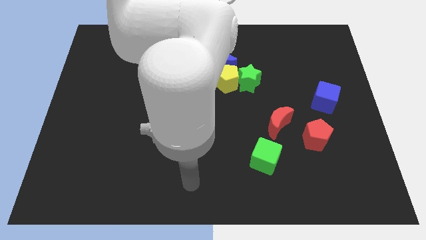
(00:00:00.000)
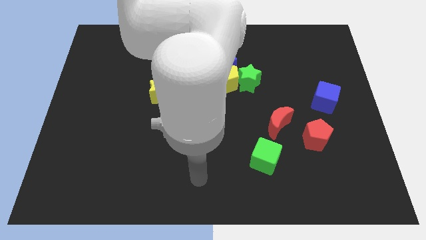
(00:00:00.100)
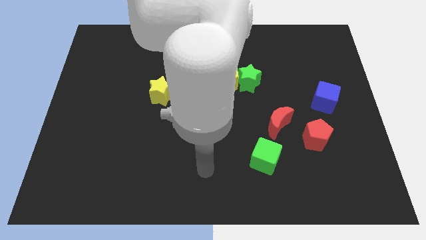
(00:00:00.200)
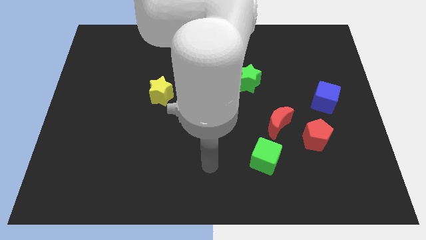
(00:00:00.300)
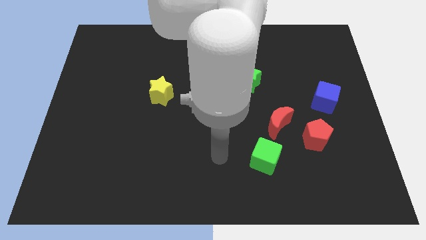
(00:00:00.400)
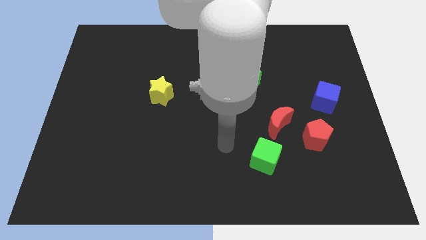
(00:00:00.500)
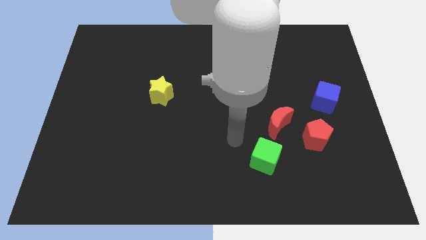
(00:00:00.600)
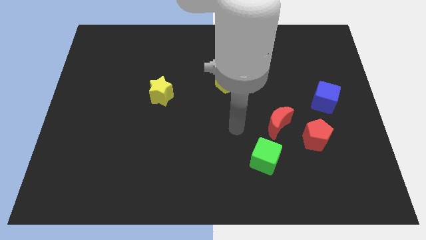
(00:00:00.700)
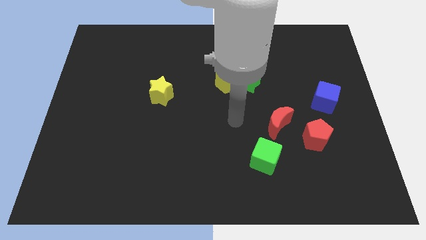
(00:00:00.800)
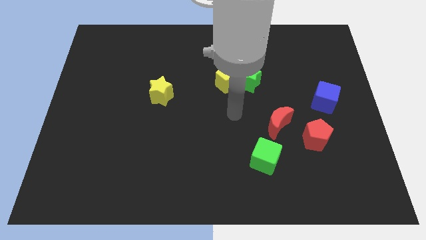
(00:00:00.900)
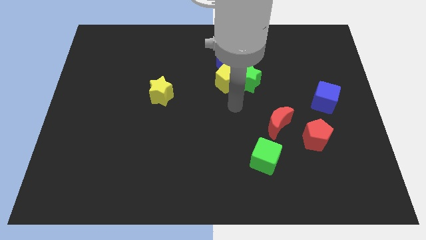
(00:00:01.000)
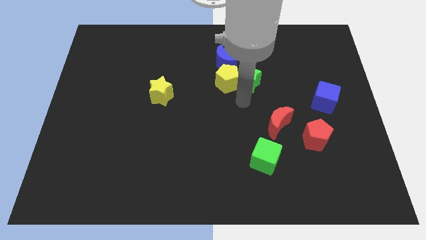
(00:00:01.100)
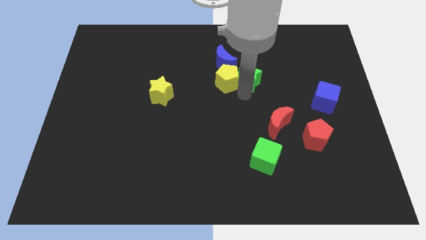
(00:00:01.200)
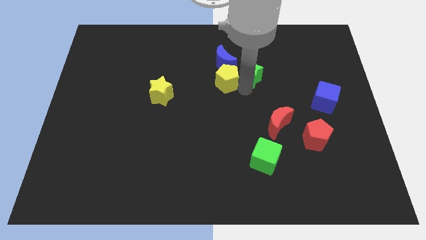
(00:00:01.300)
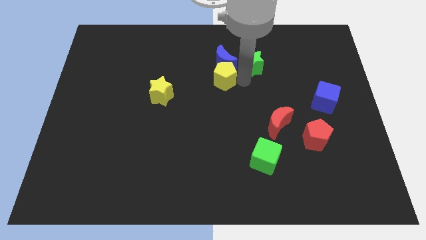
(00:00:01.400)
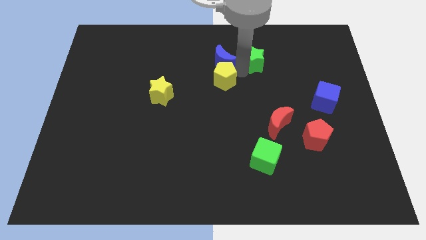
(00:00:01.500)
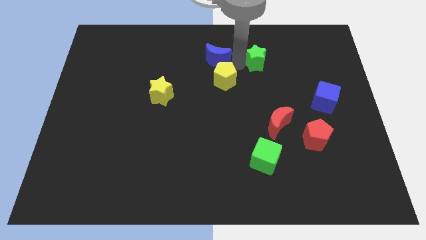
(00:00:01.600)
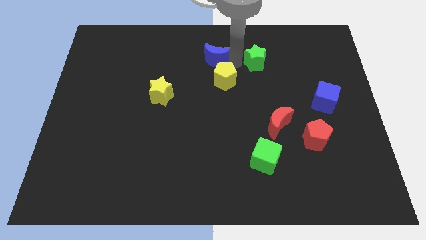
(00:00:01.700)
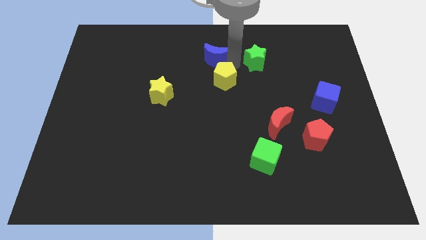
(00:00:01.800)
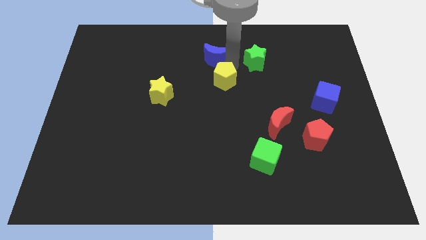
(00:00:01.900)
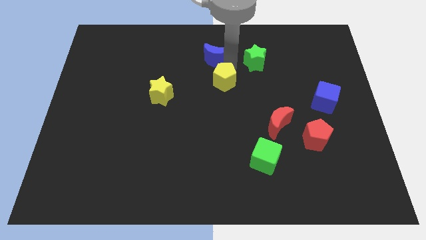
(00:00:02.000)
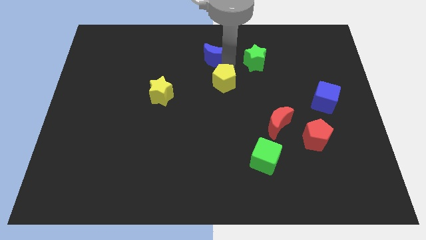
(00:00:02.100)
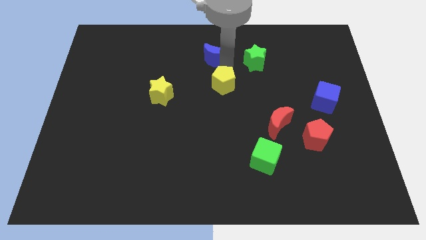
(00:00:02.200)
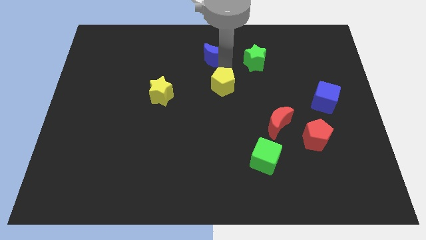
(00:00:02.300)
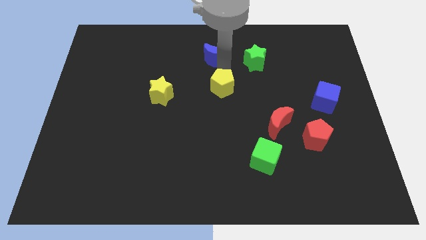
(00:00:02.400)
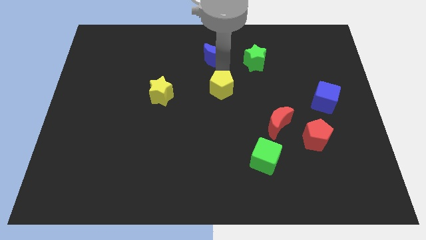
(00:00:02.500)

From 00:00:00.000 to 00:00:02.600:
pull the yellow pentagon apart from the green star and blue moon

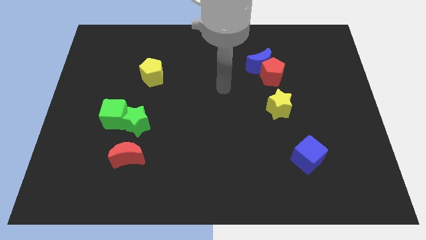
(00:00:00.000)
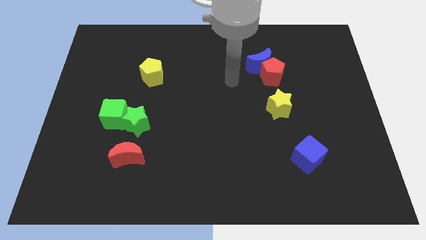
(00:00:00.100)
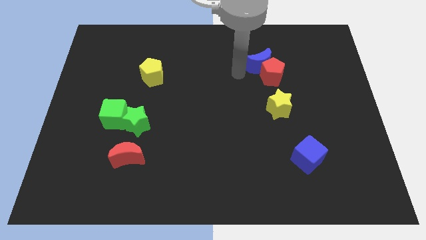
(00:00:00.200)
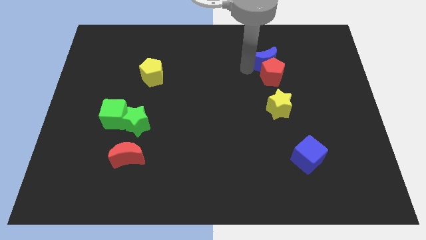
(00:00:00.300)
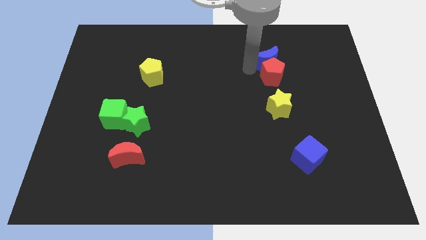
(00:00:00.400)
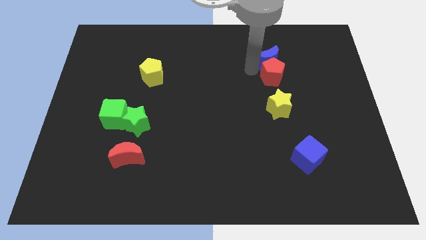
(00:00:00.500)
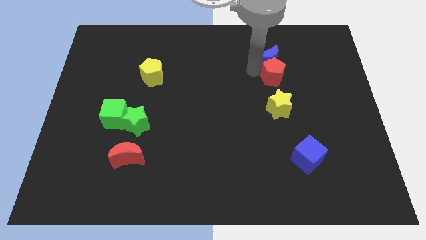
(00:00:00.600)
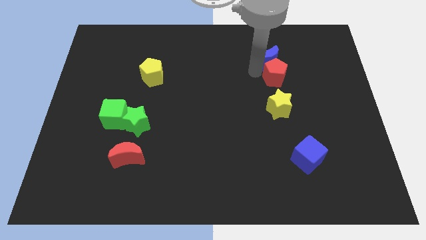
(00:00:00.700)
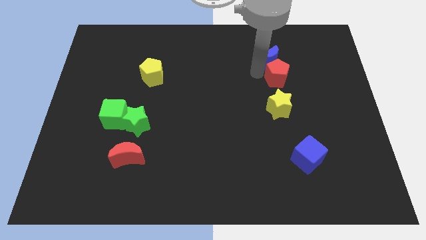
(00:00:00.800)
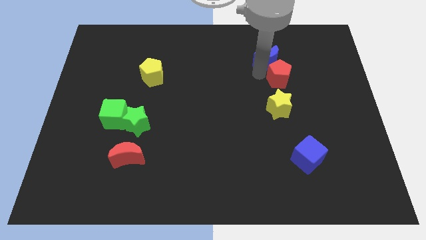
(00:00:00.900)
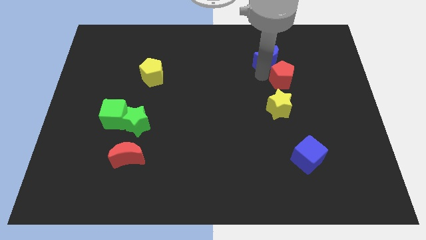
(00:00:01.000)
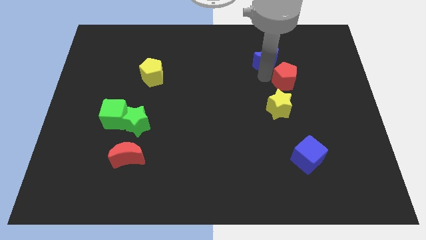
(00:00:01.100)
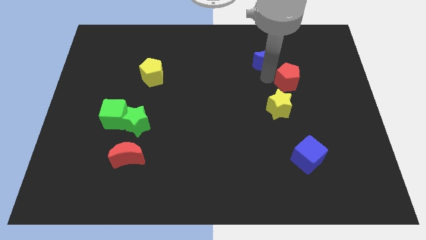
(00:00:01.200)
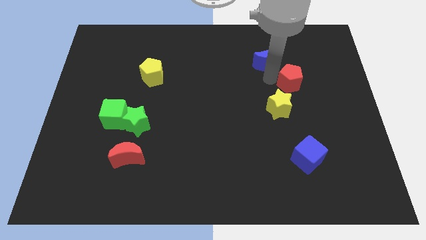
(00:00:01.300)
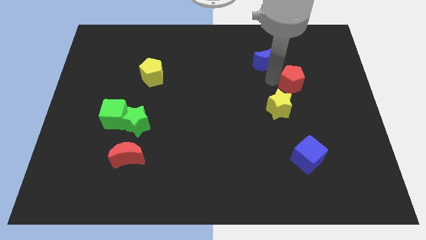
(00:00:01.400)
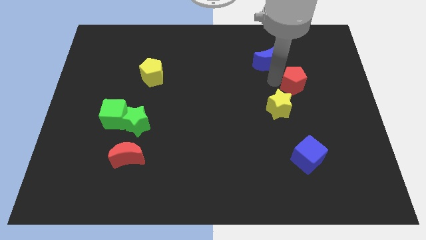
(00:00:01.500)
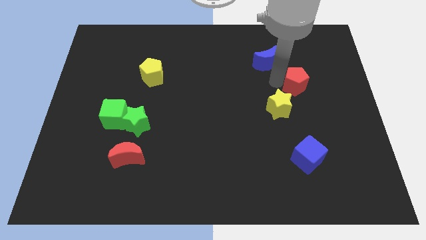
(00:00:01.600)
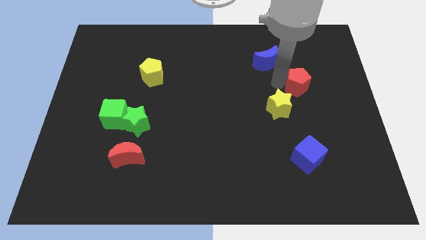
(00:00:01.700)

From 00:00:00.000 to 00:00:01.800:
separate the red pentagon from the blue moon

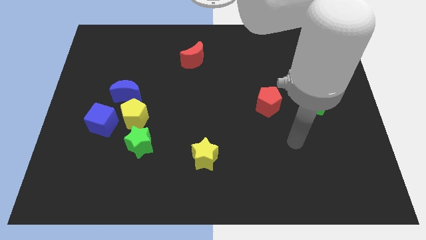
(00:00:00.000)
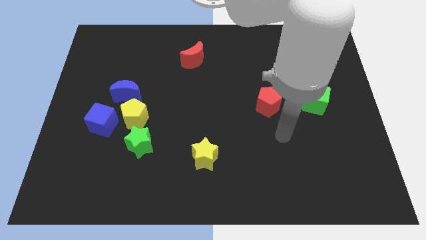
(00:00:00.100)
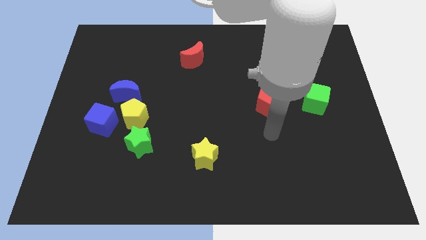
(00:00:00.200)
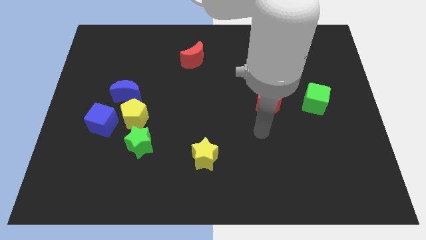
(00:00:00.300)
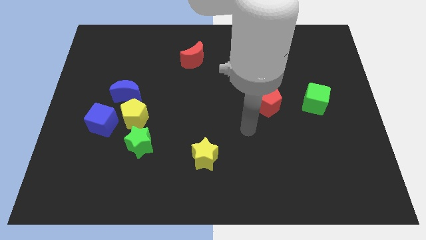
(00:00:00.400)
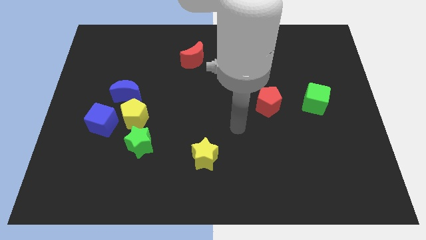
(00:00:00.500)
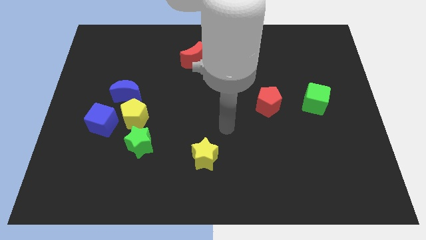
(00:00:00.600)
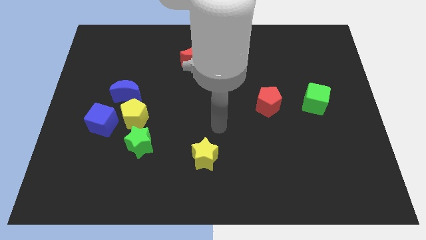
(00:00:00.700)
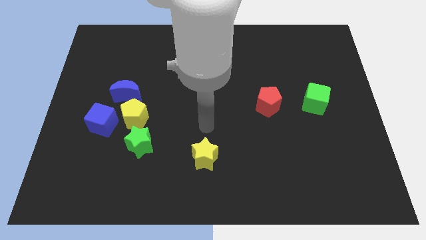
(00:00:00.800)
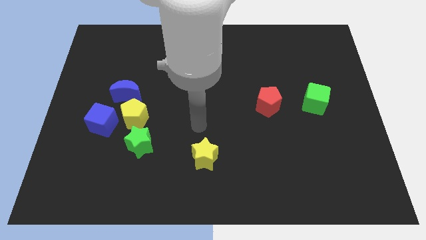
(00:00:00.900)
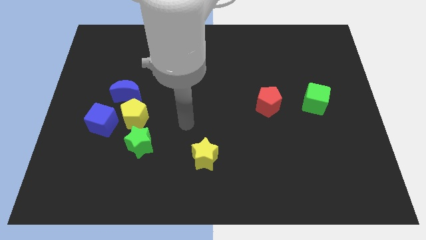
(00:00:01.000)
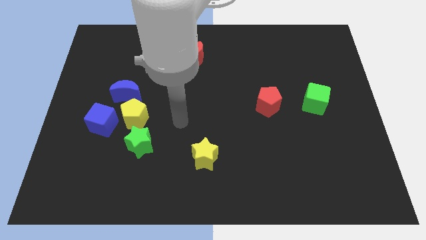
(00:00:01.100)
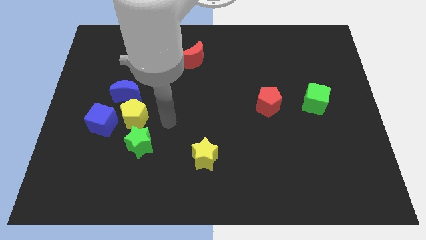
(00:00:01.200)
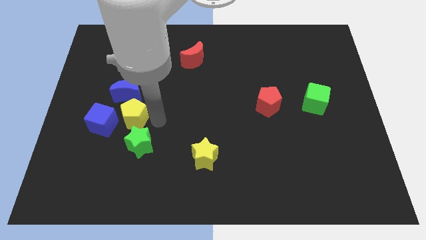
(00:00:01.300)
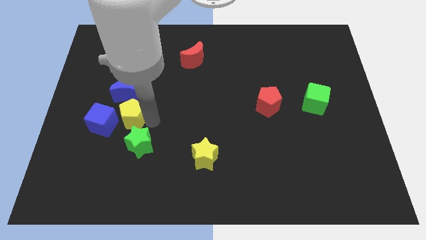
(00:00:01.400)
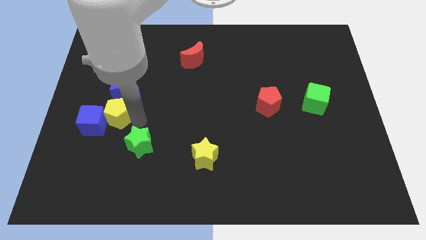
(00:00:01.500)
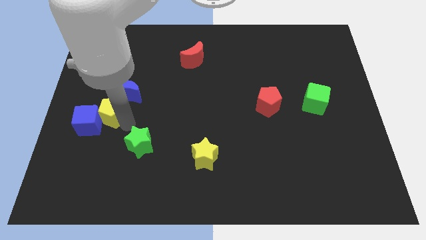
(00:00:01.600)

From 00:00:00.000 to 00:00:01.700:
separate the green star from the yellow pentagon

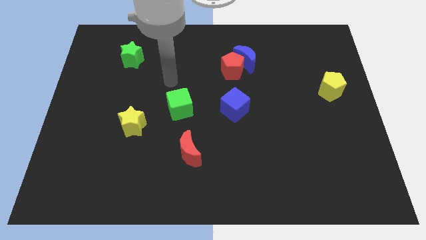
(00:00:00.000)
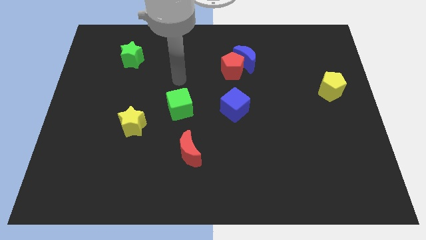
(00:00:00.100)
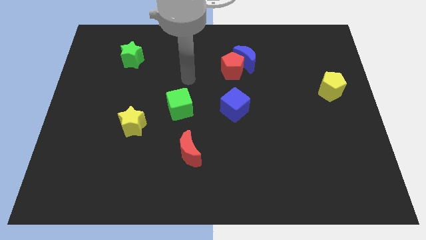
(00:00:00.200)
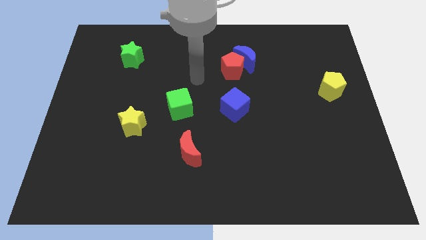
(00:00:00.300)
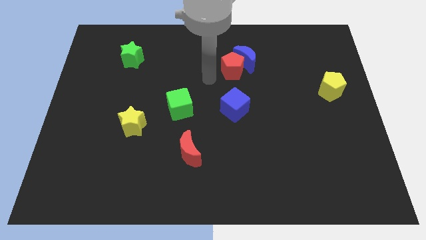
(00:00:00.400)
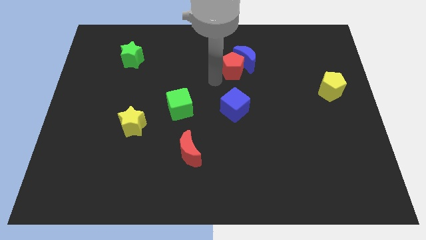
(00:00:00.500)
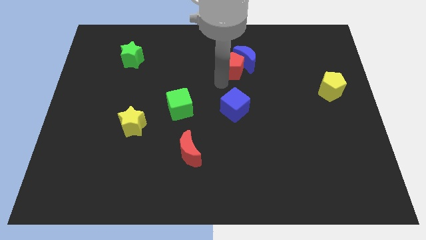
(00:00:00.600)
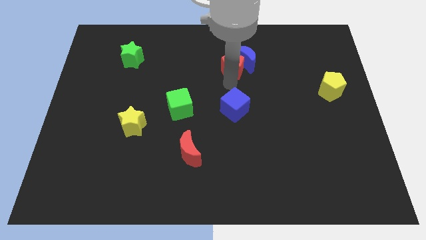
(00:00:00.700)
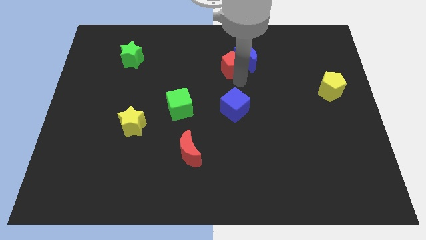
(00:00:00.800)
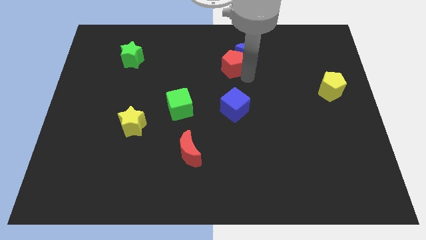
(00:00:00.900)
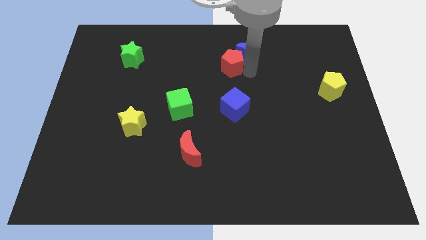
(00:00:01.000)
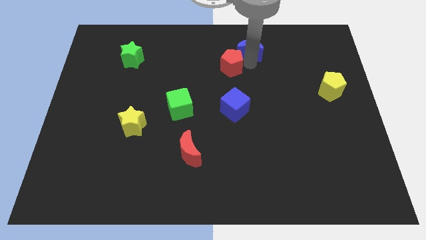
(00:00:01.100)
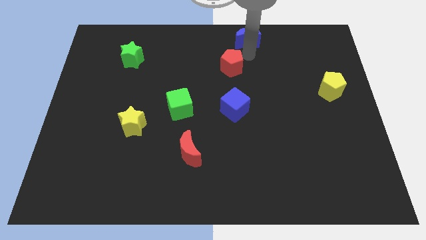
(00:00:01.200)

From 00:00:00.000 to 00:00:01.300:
move the red pentagon away from the blue moon

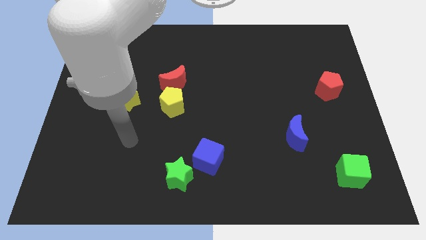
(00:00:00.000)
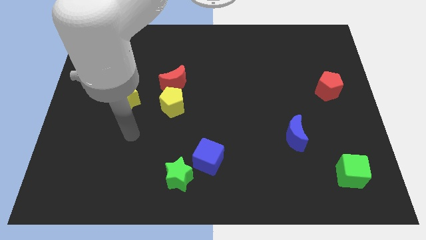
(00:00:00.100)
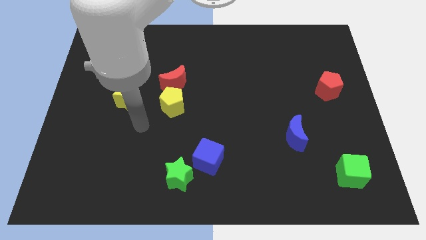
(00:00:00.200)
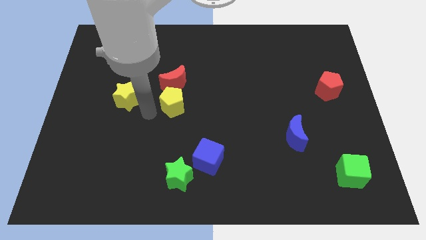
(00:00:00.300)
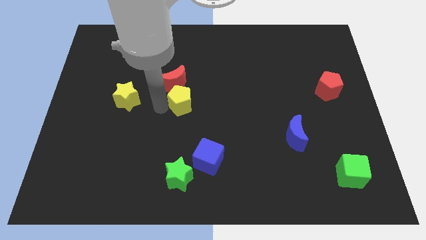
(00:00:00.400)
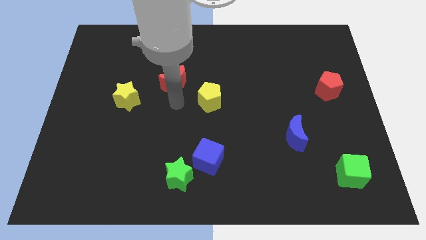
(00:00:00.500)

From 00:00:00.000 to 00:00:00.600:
move the red moon away from the yellow pentagon

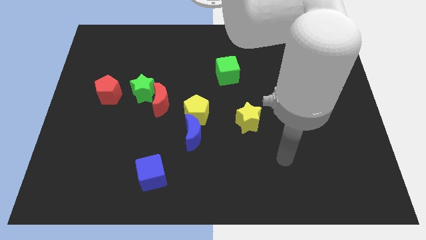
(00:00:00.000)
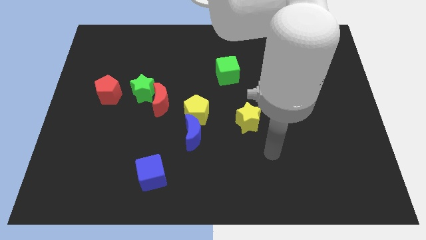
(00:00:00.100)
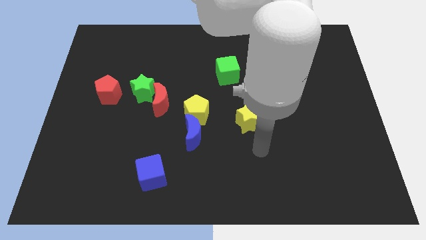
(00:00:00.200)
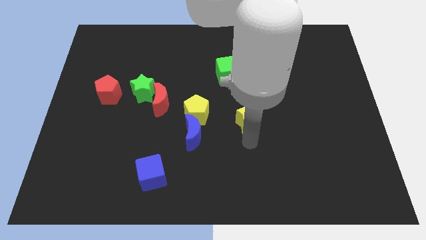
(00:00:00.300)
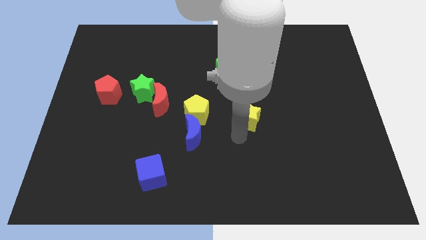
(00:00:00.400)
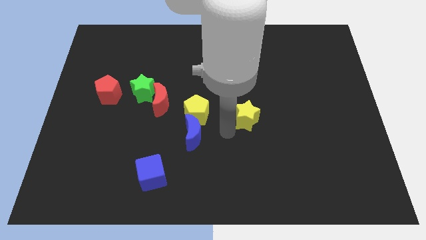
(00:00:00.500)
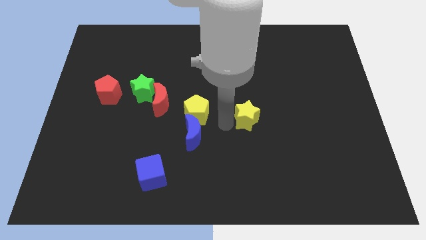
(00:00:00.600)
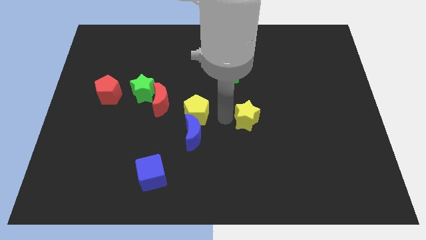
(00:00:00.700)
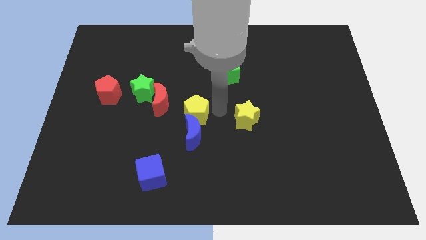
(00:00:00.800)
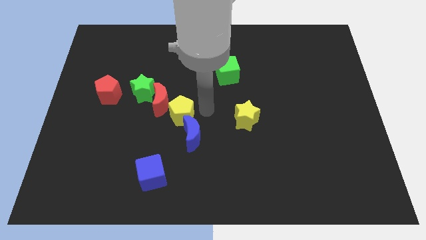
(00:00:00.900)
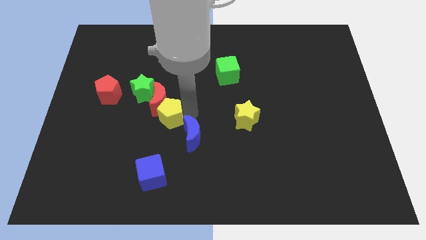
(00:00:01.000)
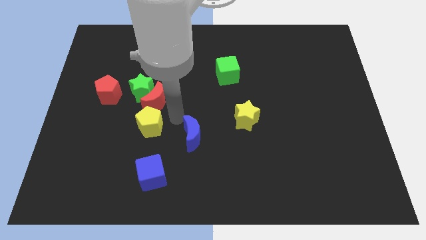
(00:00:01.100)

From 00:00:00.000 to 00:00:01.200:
move the blue moon away from the yellow pentagon
